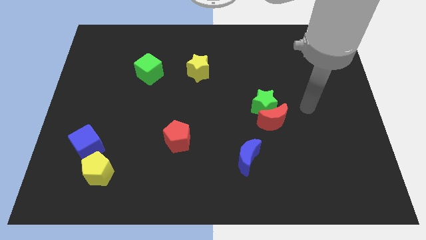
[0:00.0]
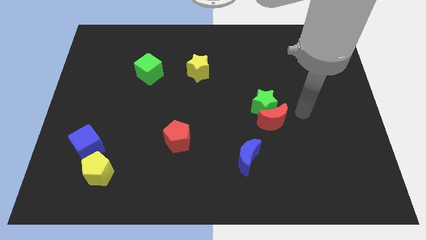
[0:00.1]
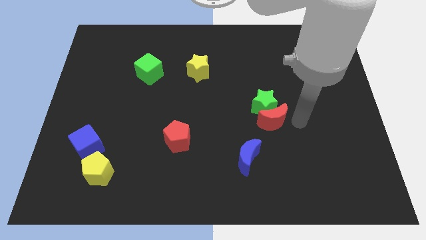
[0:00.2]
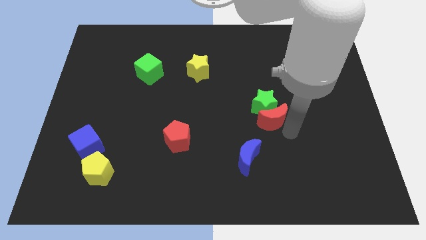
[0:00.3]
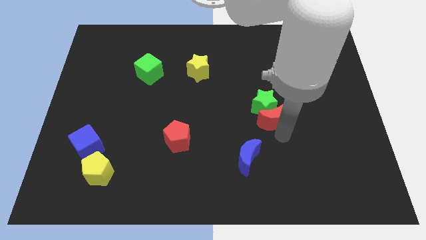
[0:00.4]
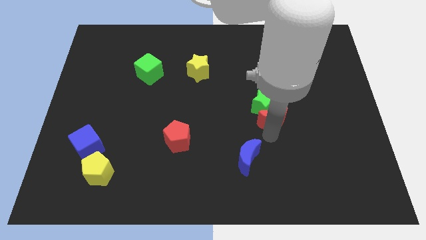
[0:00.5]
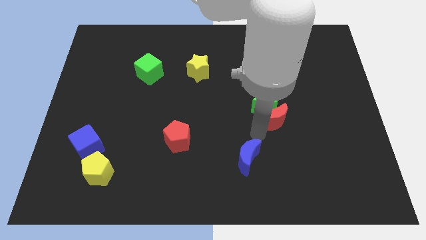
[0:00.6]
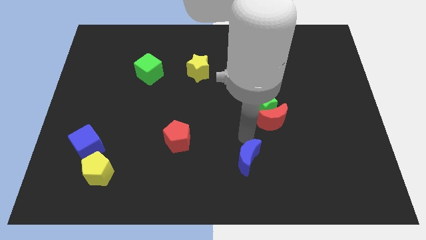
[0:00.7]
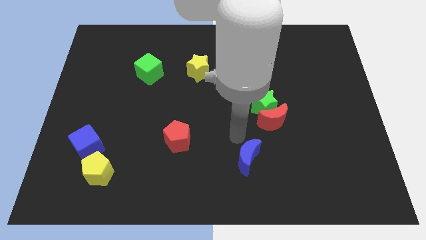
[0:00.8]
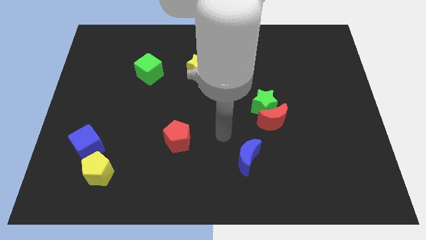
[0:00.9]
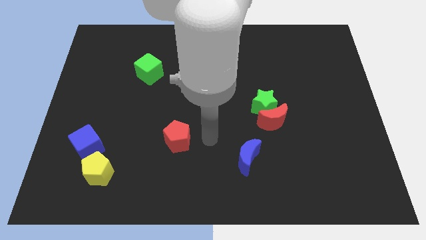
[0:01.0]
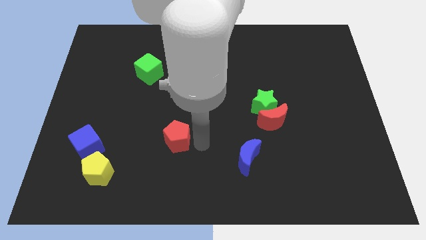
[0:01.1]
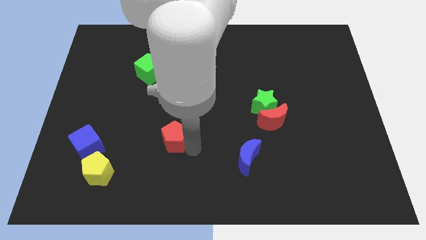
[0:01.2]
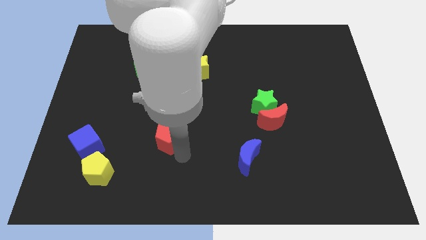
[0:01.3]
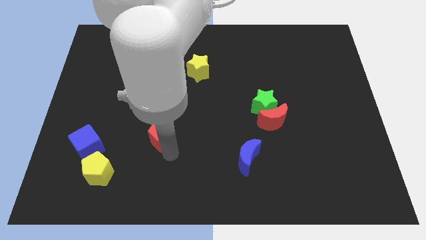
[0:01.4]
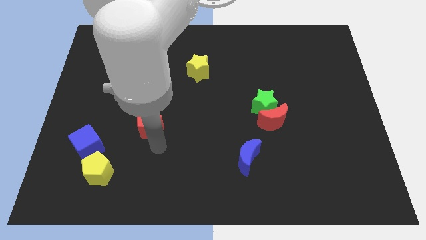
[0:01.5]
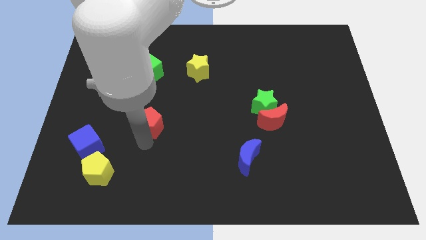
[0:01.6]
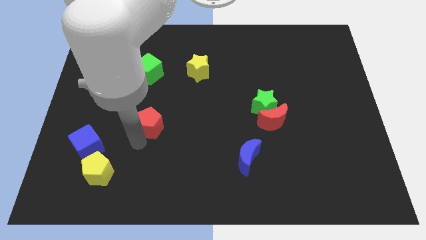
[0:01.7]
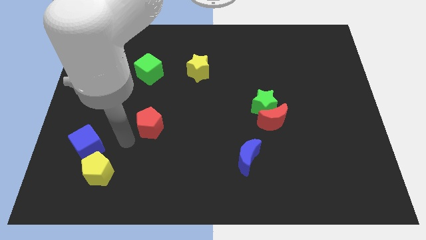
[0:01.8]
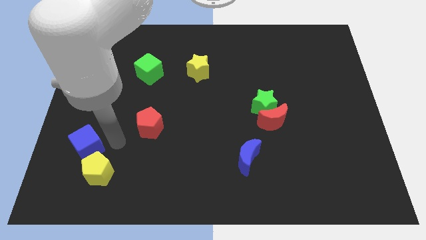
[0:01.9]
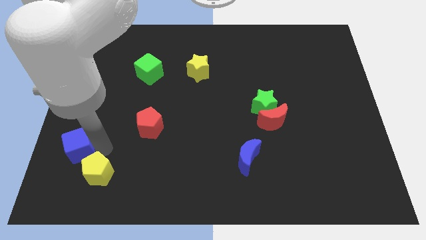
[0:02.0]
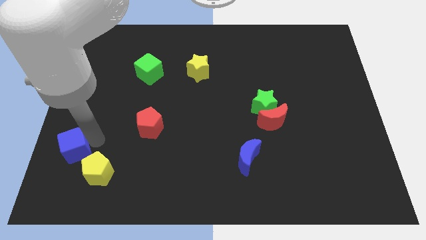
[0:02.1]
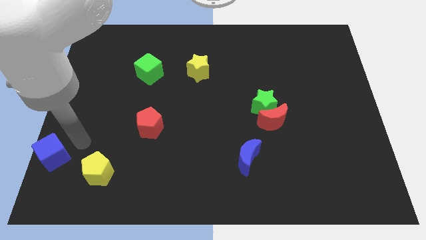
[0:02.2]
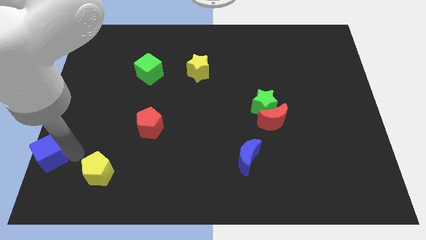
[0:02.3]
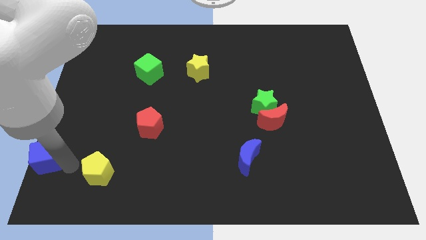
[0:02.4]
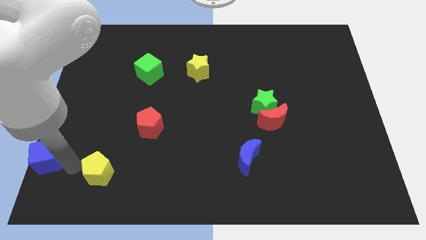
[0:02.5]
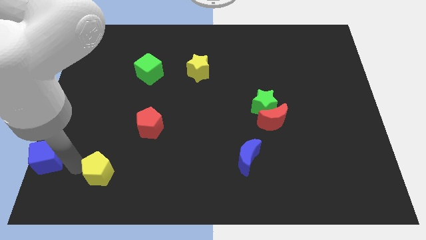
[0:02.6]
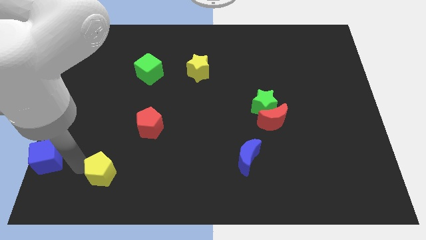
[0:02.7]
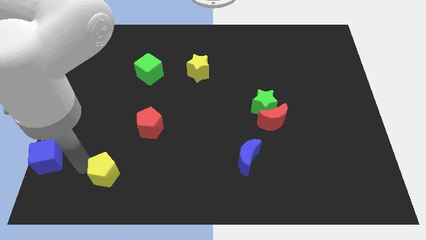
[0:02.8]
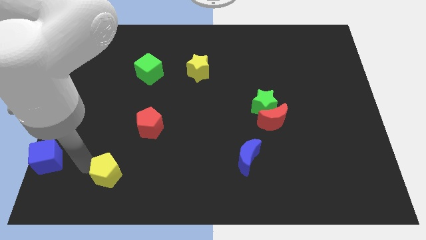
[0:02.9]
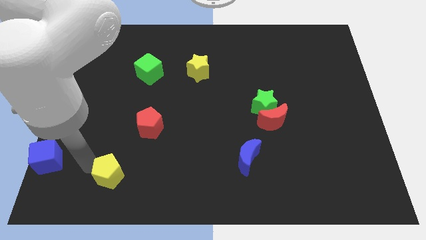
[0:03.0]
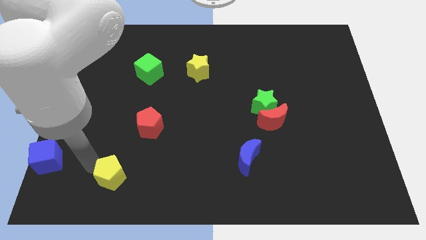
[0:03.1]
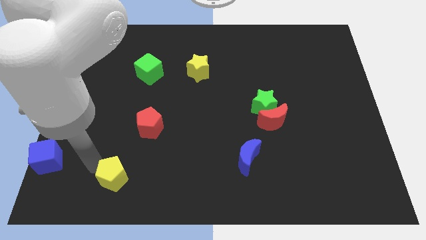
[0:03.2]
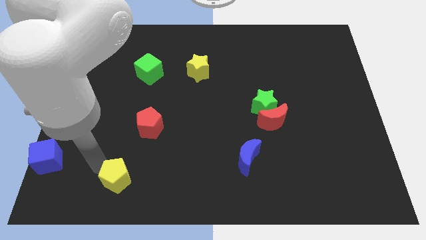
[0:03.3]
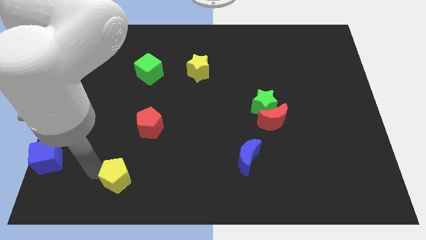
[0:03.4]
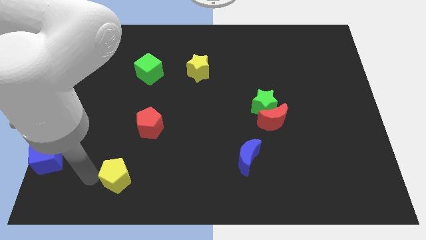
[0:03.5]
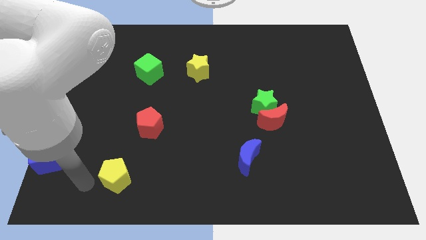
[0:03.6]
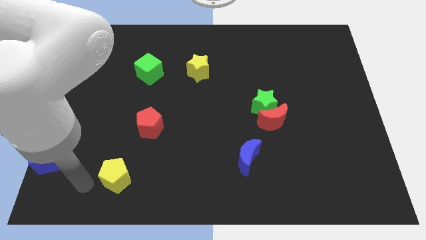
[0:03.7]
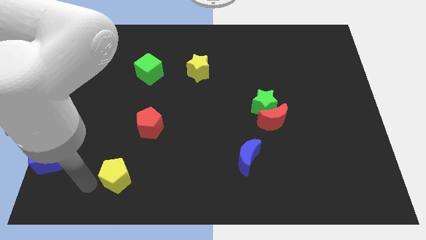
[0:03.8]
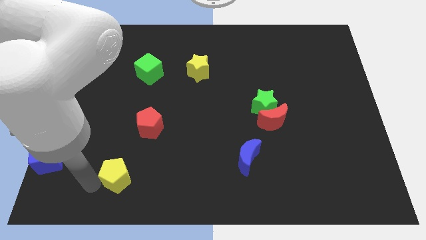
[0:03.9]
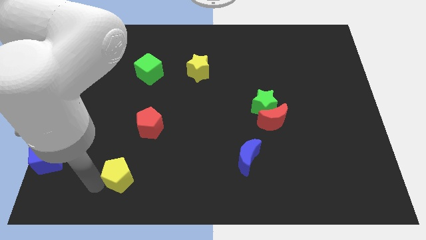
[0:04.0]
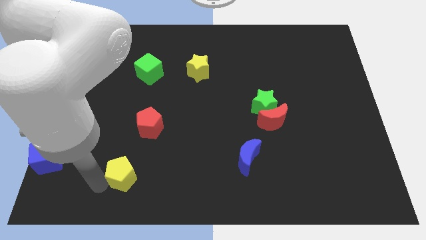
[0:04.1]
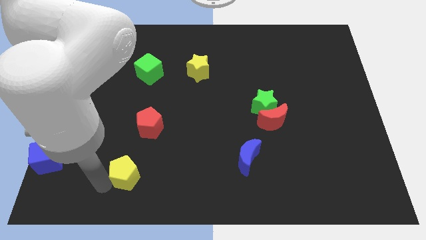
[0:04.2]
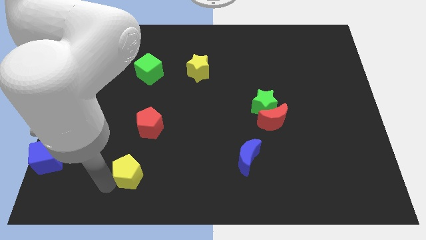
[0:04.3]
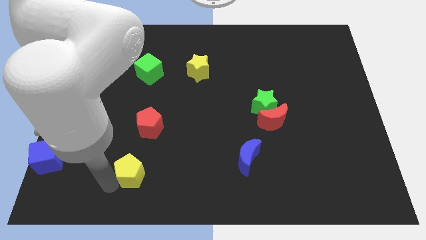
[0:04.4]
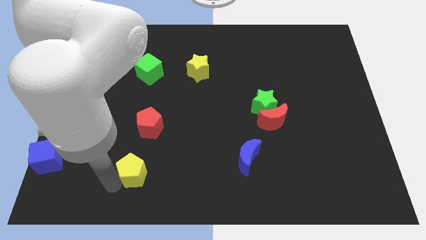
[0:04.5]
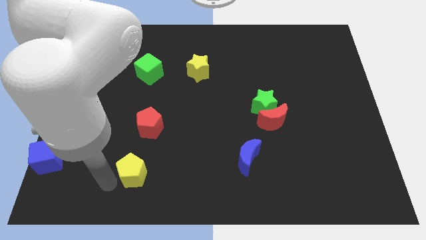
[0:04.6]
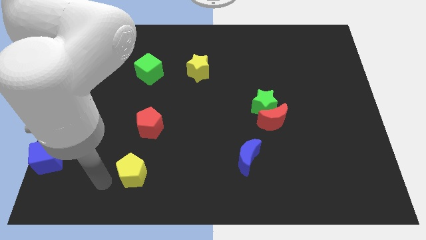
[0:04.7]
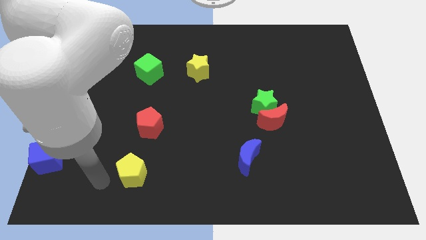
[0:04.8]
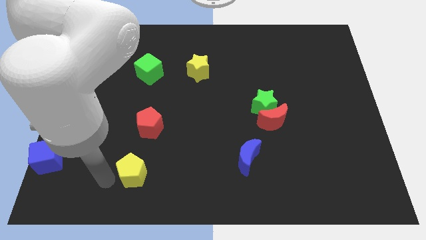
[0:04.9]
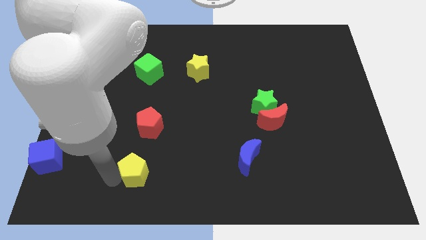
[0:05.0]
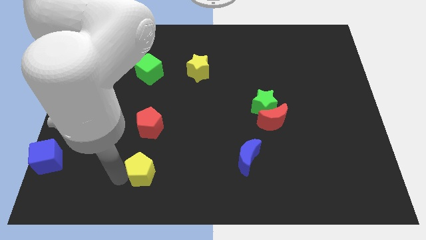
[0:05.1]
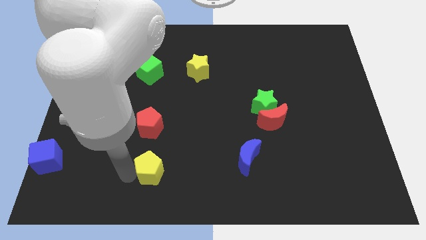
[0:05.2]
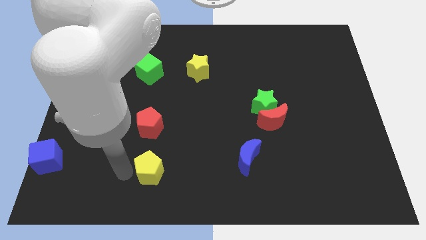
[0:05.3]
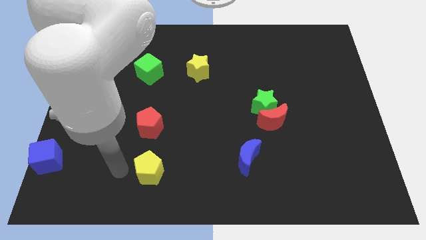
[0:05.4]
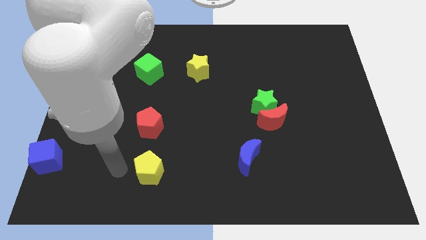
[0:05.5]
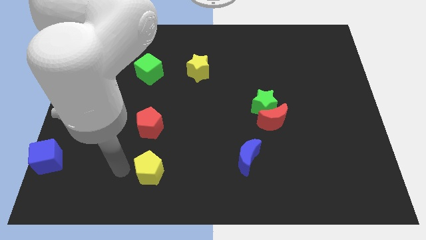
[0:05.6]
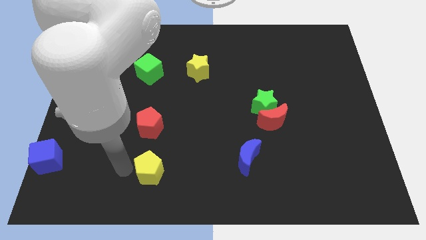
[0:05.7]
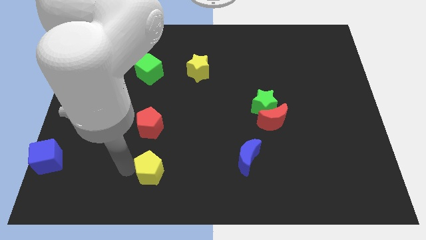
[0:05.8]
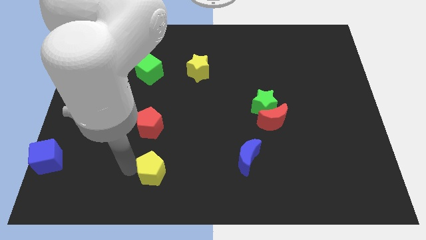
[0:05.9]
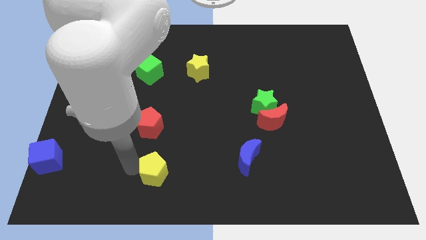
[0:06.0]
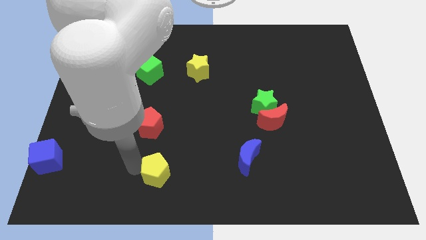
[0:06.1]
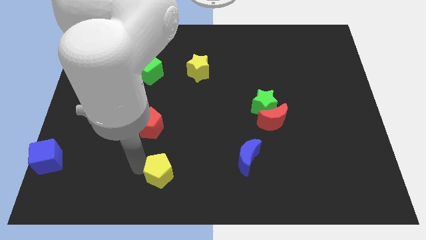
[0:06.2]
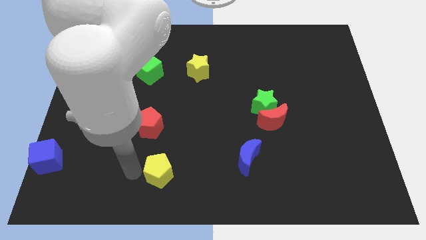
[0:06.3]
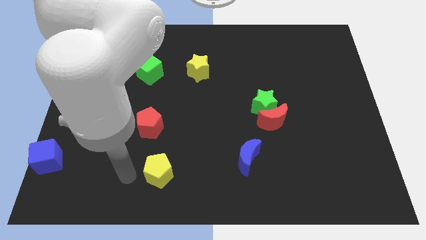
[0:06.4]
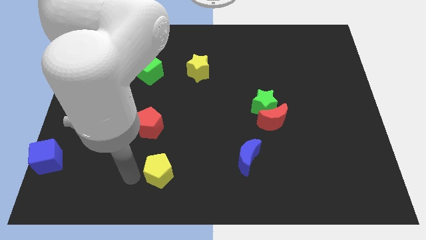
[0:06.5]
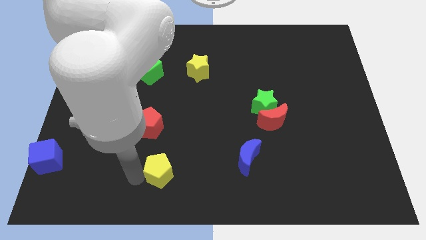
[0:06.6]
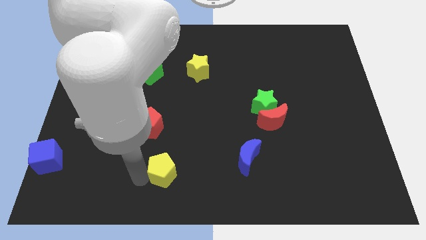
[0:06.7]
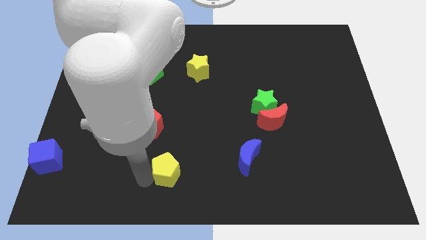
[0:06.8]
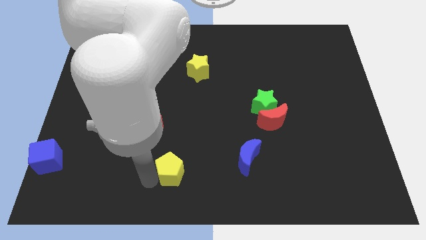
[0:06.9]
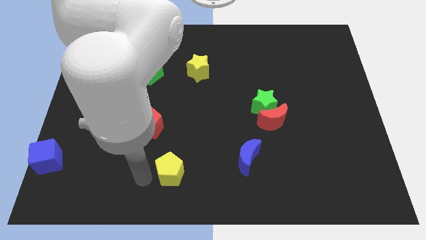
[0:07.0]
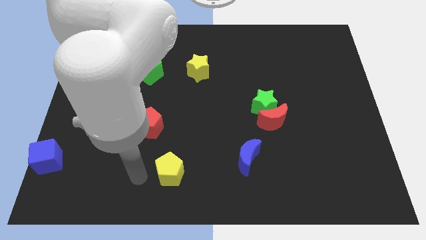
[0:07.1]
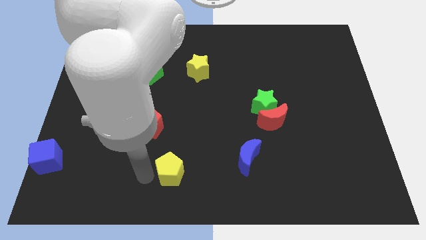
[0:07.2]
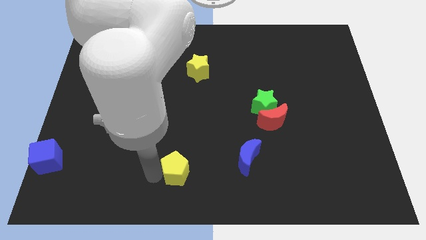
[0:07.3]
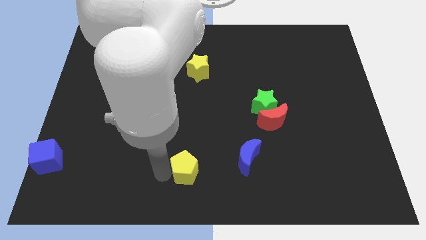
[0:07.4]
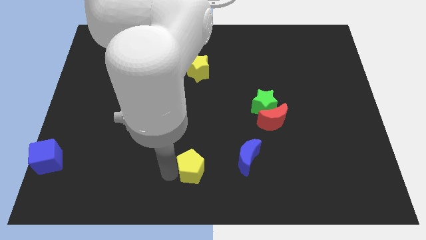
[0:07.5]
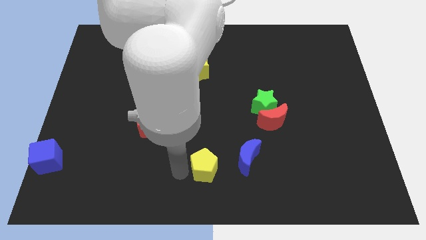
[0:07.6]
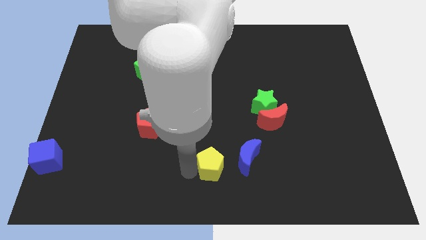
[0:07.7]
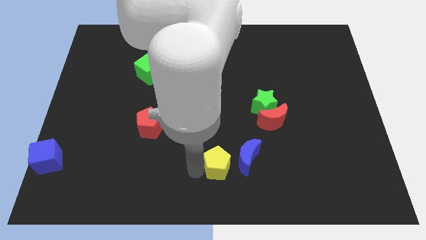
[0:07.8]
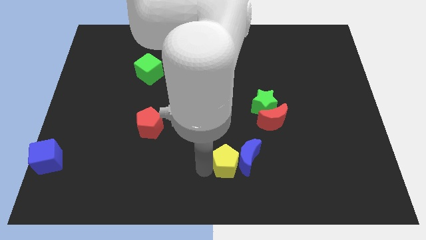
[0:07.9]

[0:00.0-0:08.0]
put the yellow pentagon close to the blue moon
